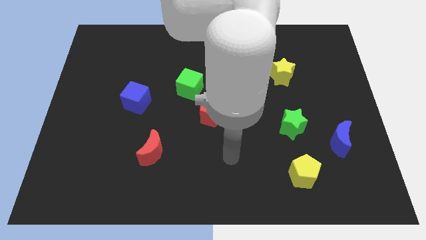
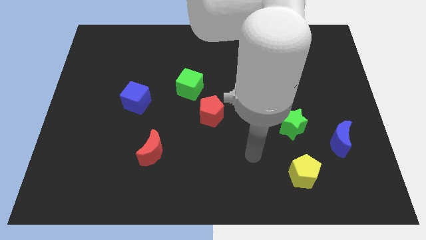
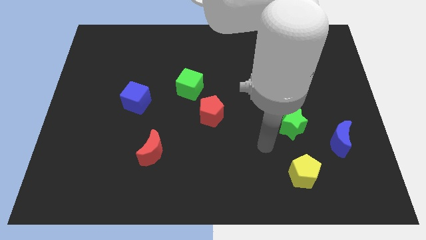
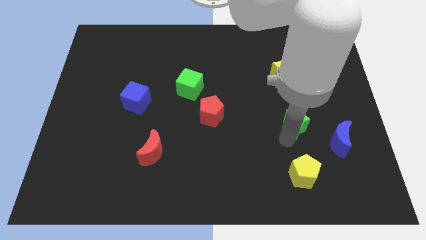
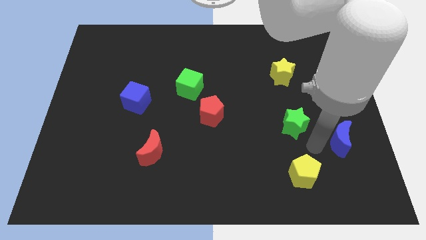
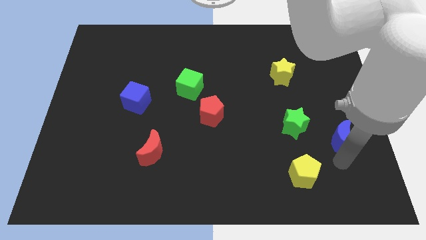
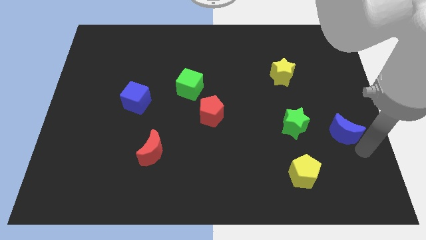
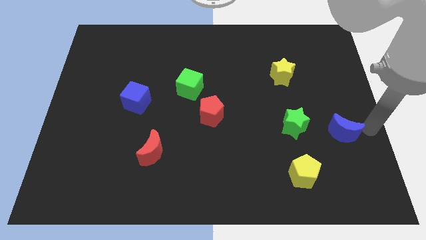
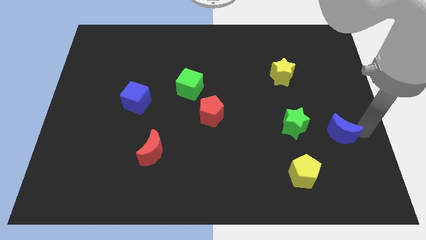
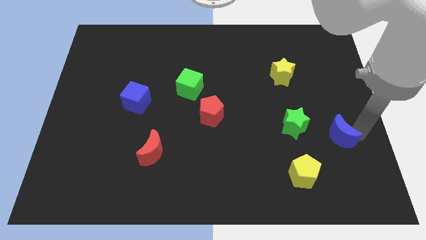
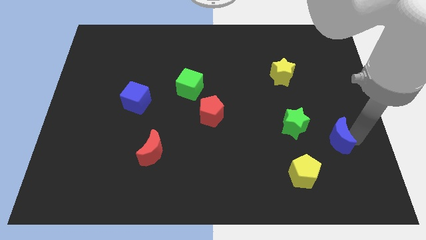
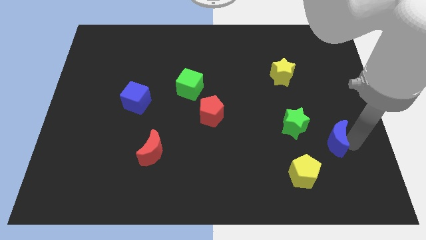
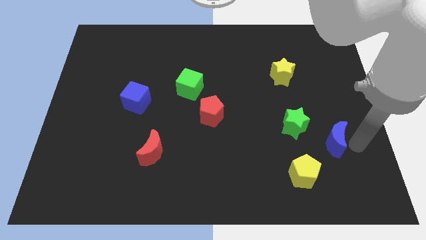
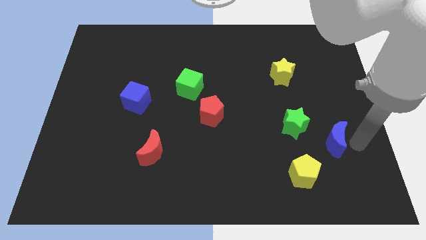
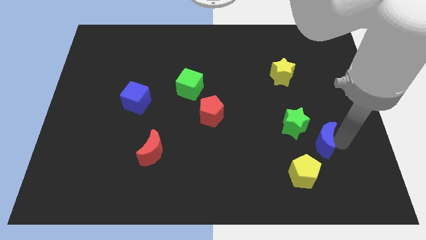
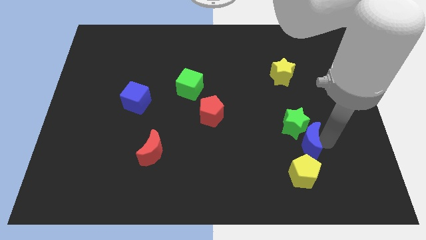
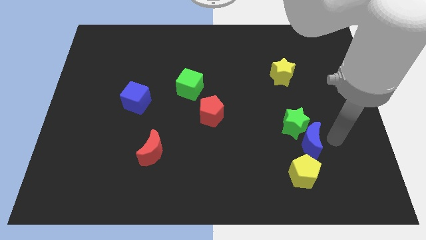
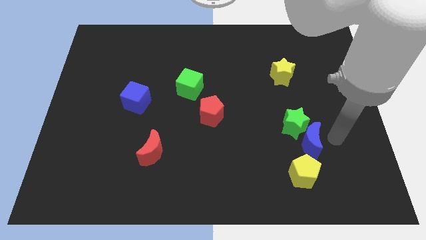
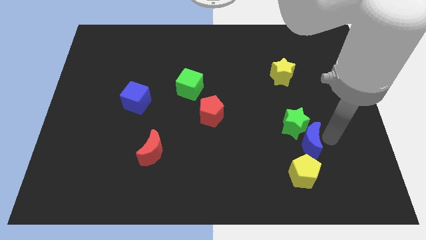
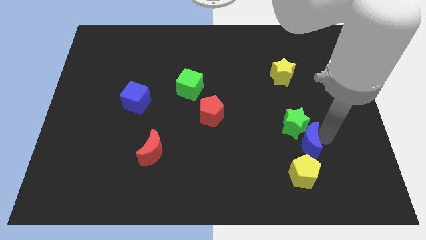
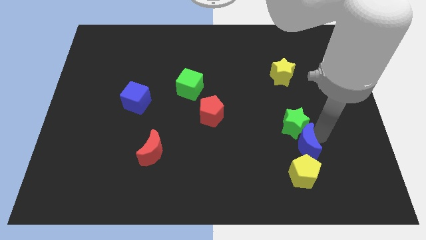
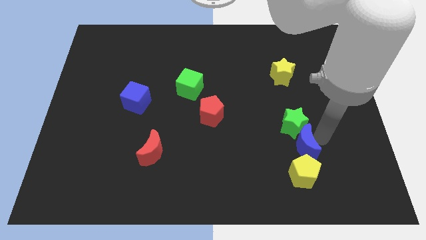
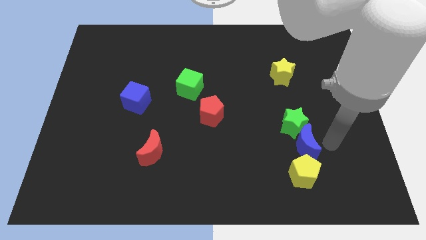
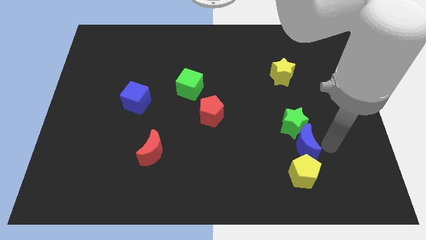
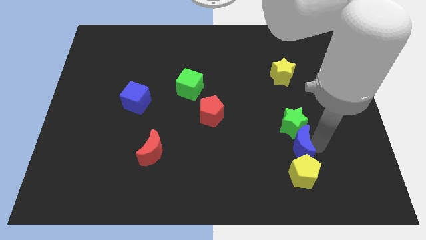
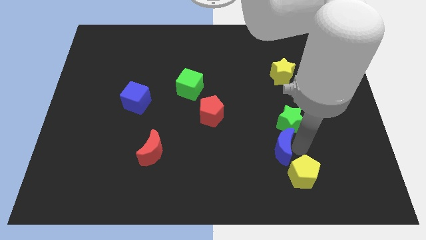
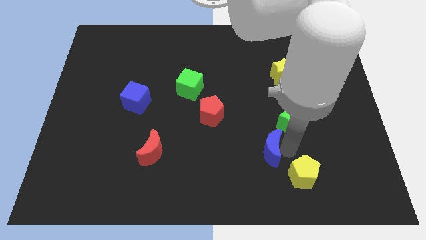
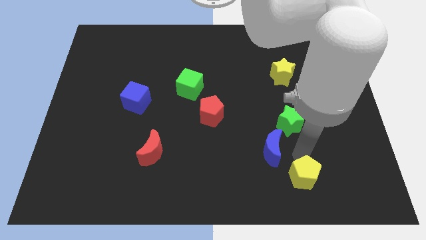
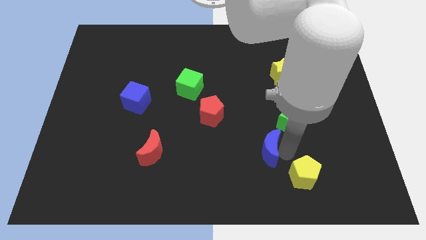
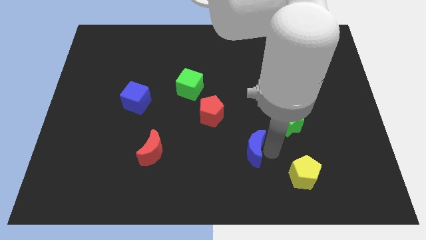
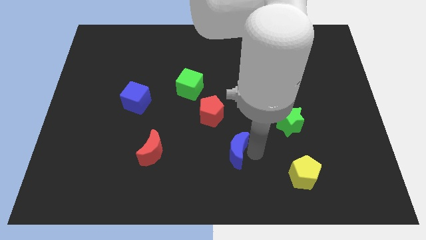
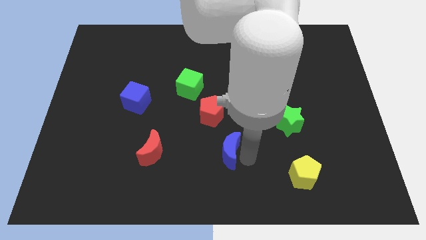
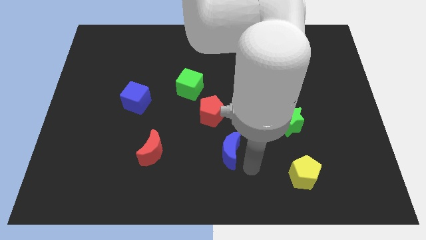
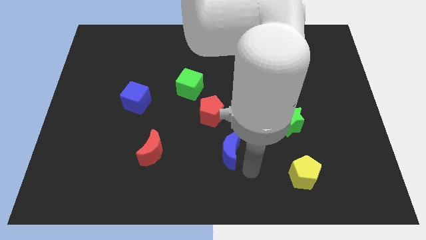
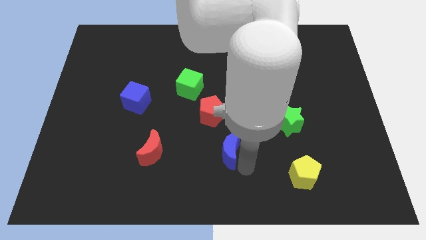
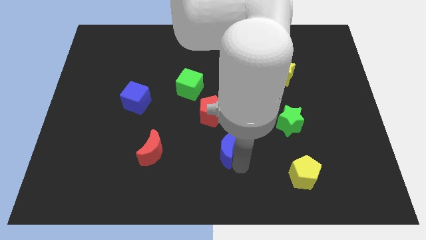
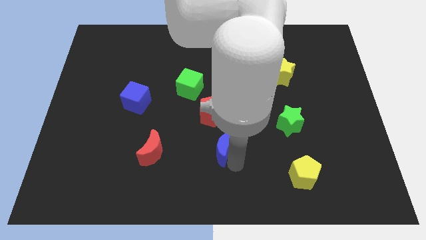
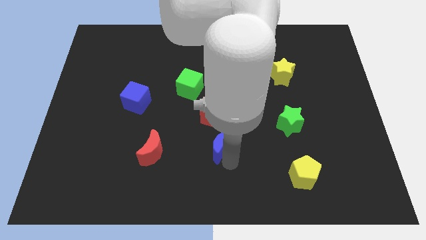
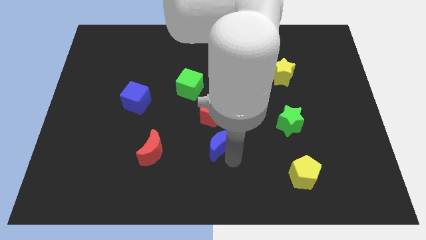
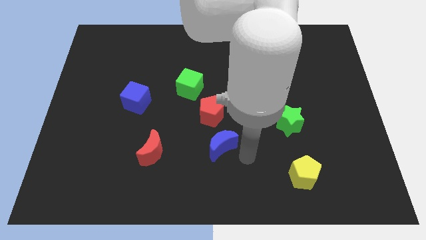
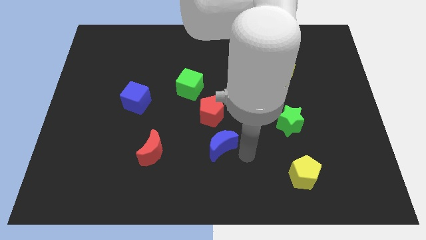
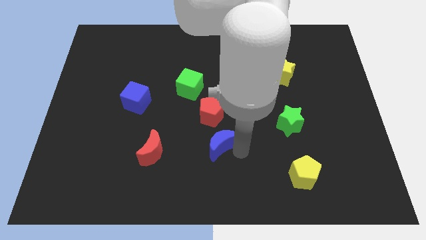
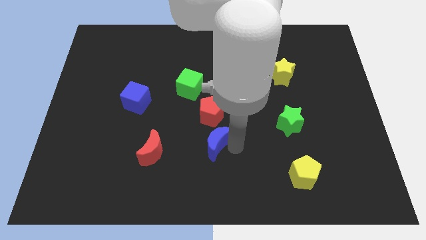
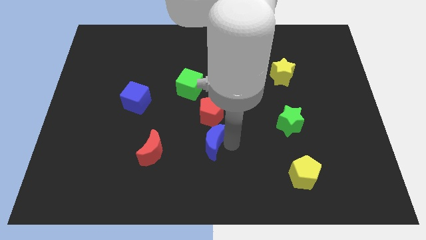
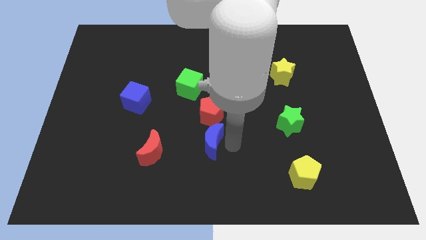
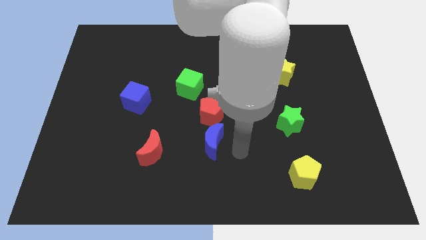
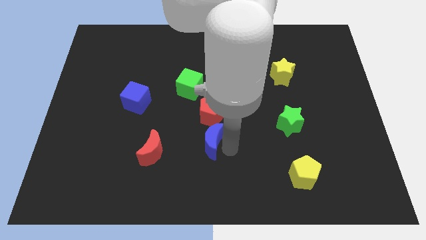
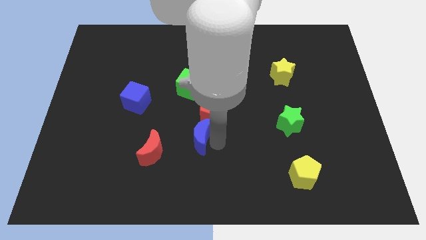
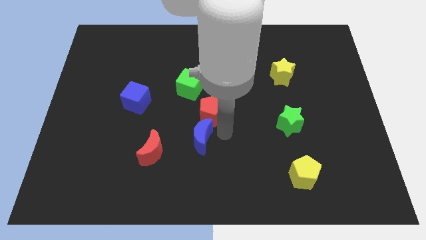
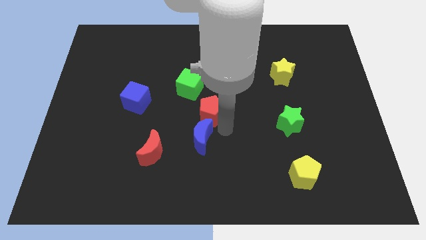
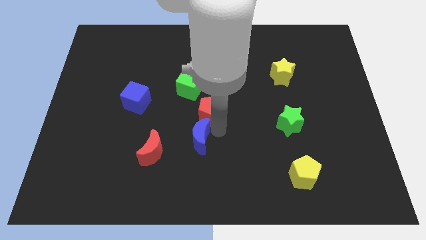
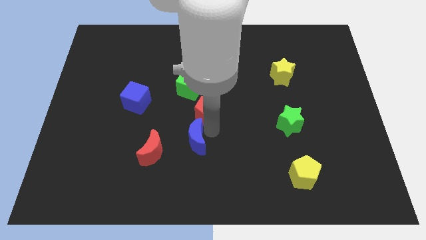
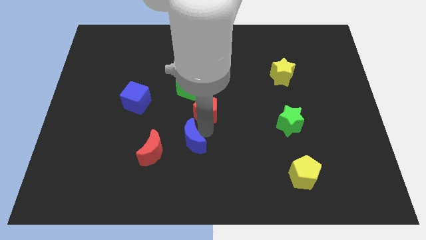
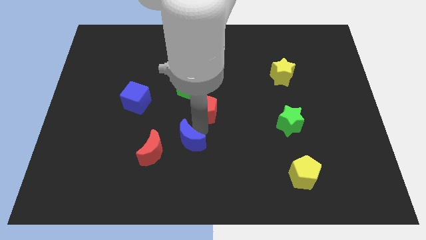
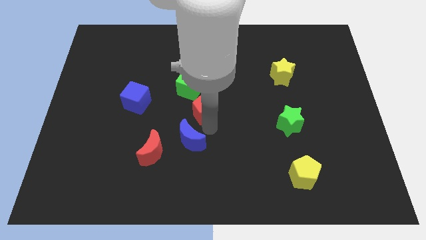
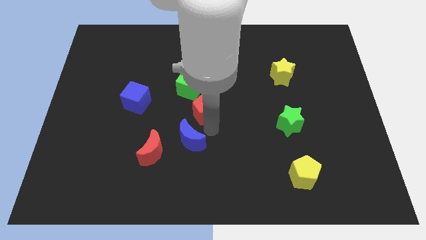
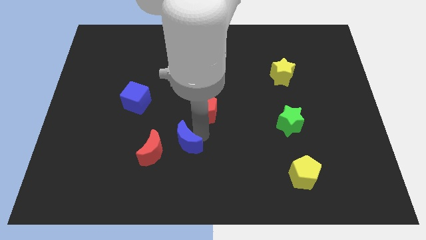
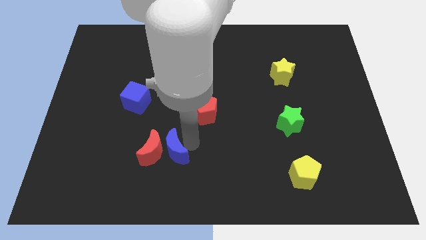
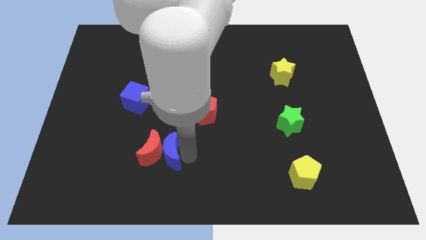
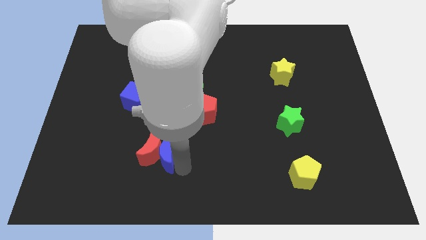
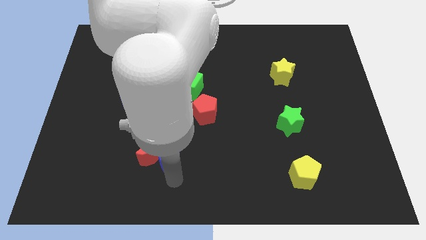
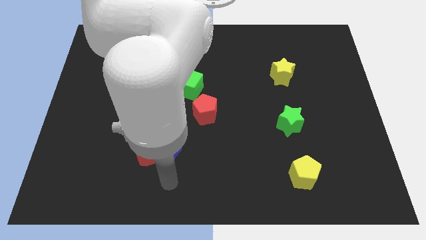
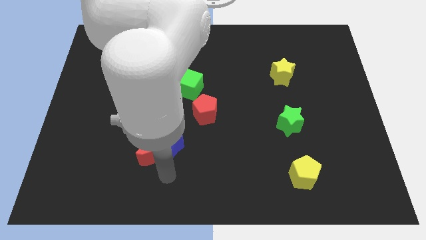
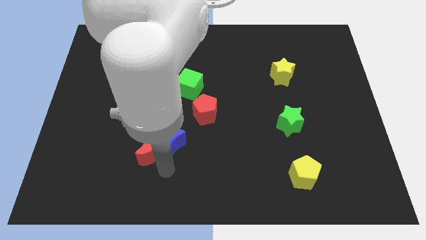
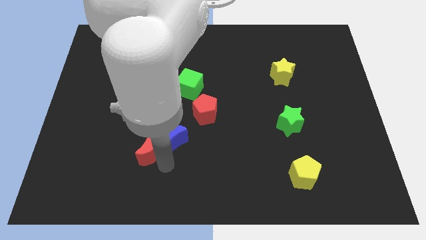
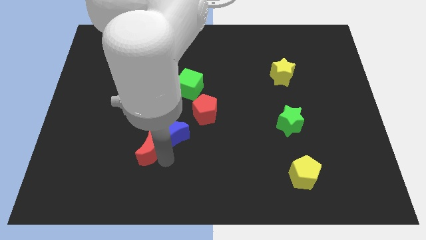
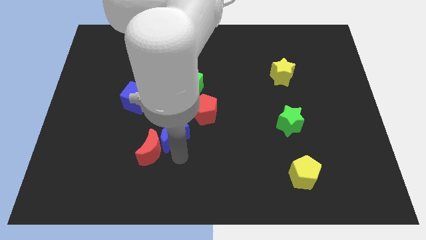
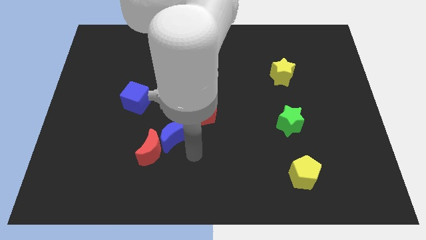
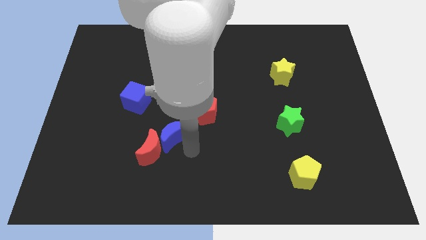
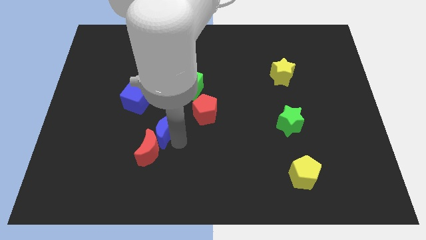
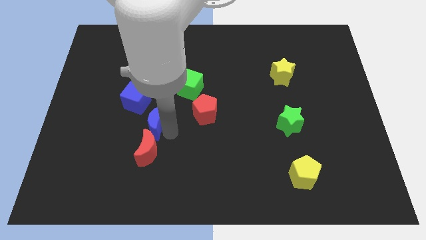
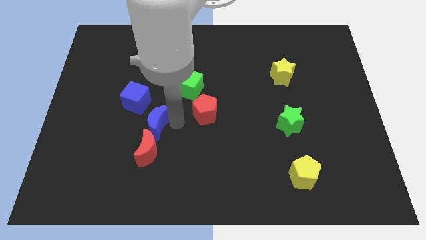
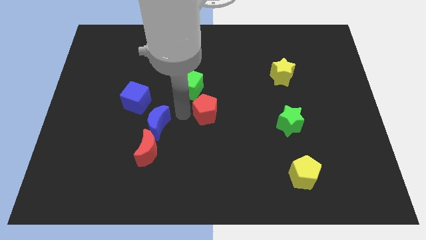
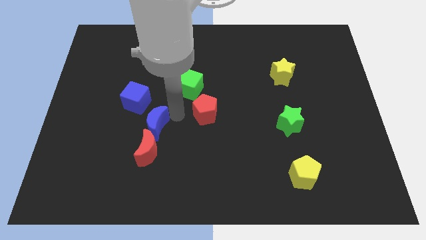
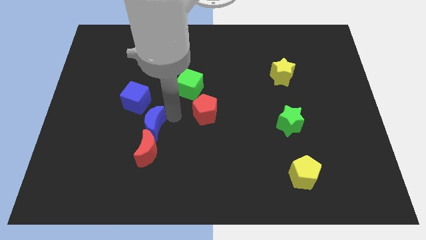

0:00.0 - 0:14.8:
move the blue moon to the bottom of the blue cube
